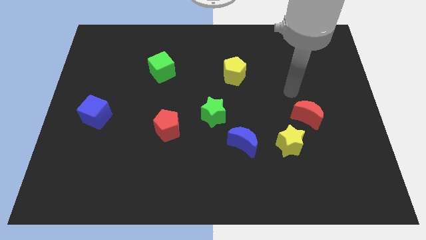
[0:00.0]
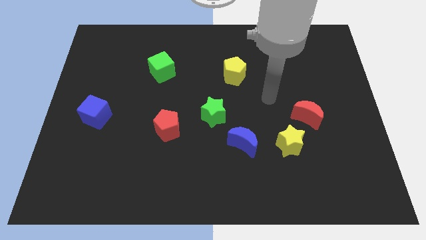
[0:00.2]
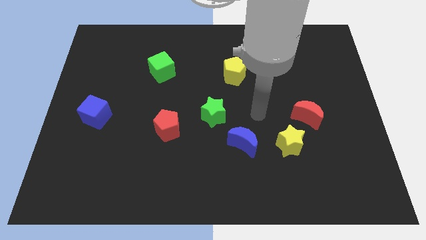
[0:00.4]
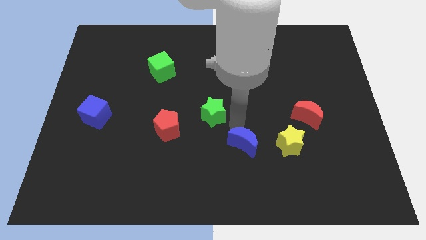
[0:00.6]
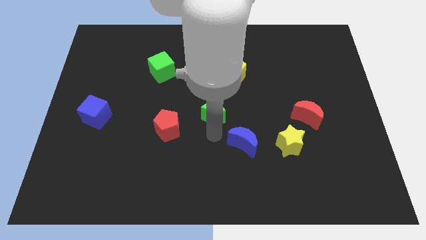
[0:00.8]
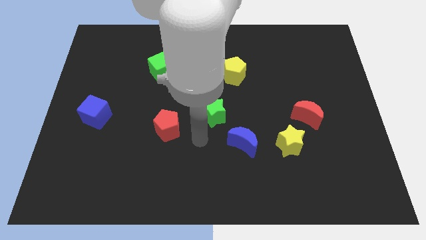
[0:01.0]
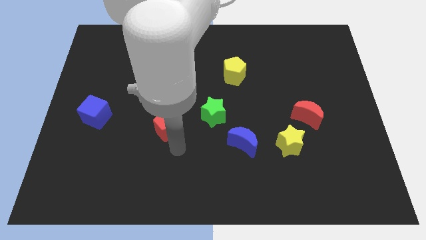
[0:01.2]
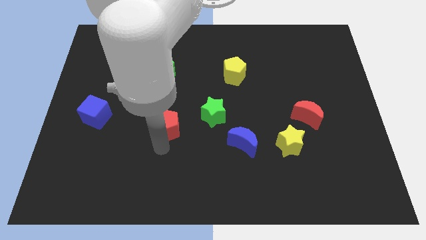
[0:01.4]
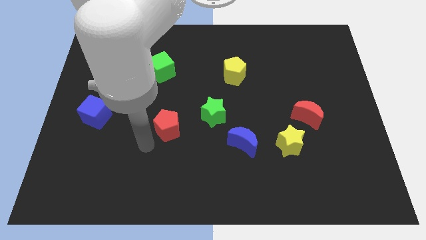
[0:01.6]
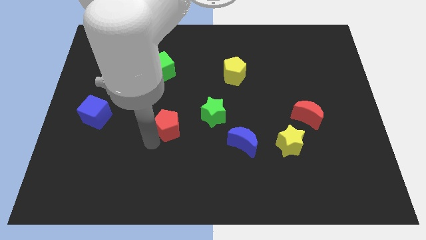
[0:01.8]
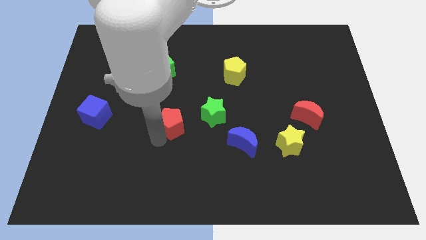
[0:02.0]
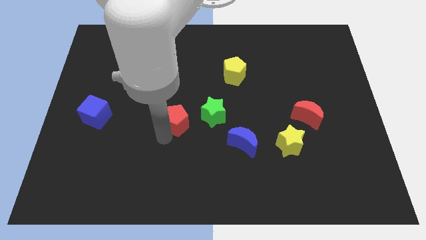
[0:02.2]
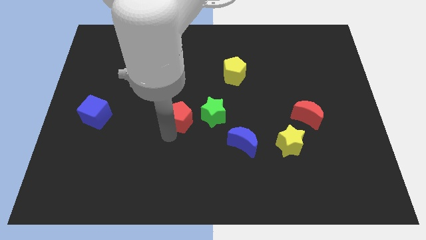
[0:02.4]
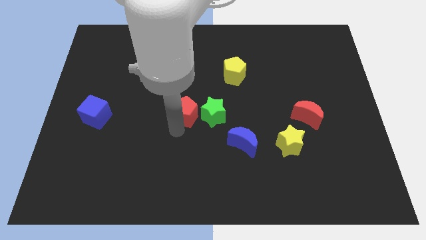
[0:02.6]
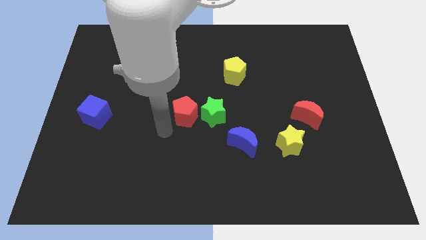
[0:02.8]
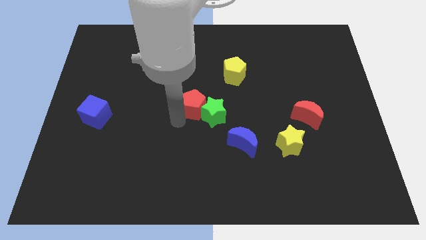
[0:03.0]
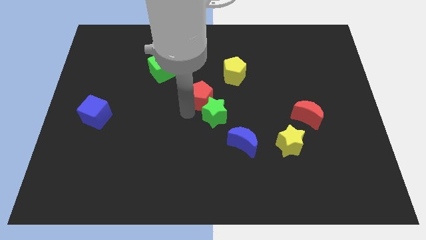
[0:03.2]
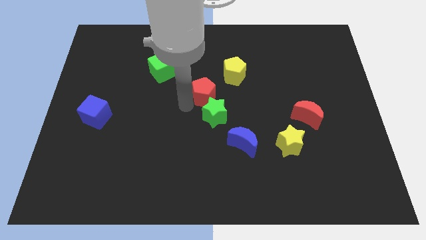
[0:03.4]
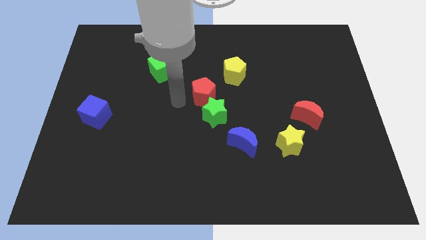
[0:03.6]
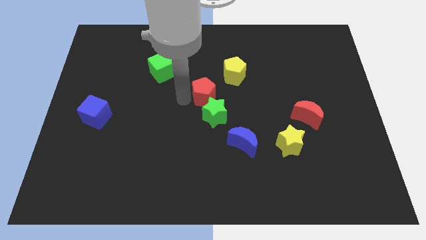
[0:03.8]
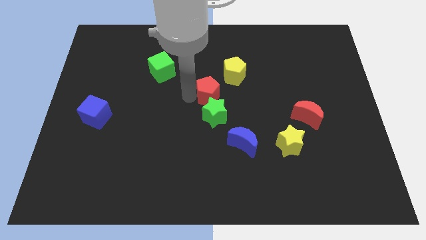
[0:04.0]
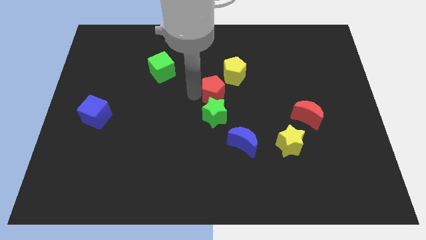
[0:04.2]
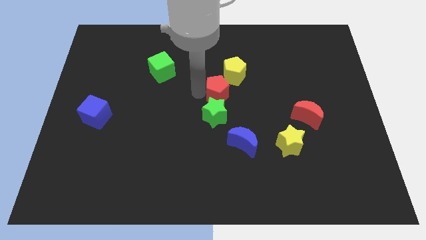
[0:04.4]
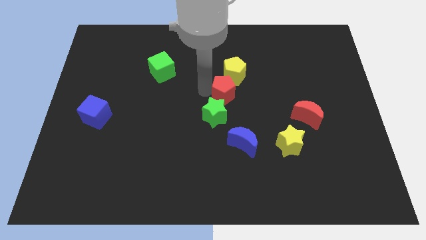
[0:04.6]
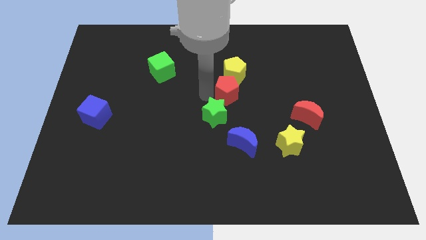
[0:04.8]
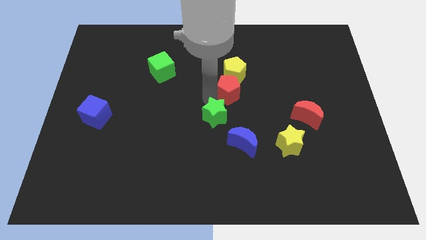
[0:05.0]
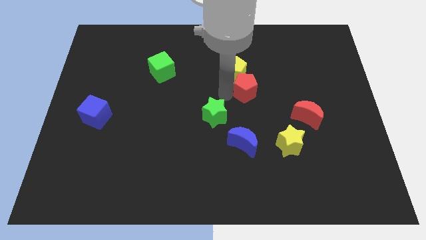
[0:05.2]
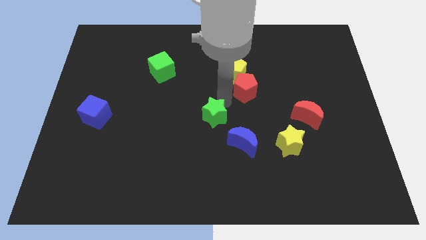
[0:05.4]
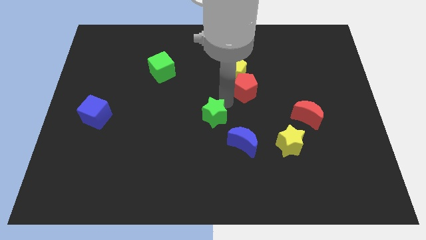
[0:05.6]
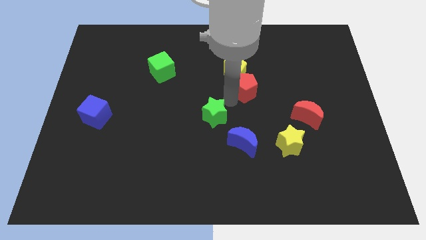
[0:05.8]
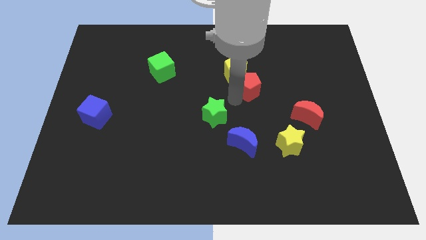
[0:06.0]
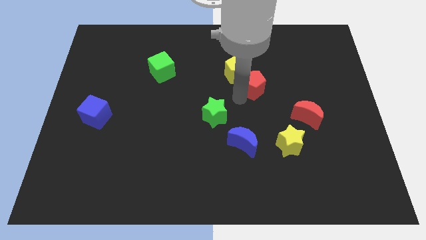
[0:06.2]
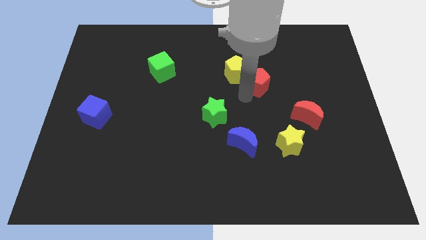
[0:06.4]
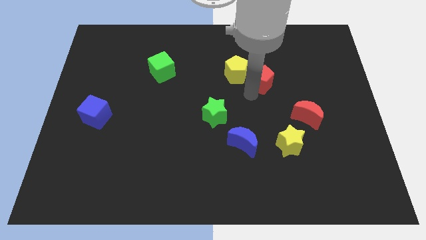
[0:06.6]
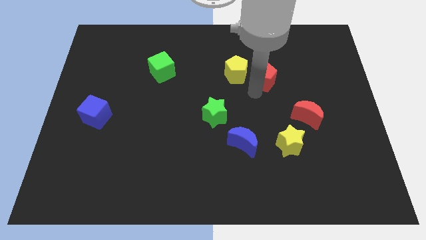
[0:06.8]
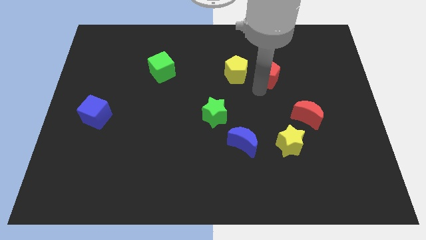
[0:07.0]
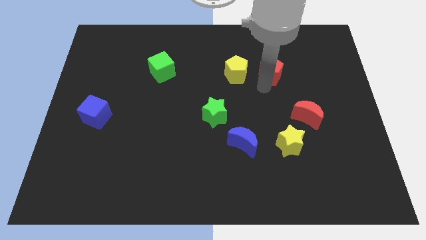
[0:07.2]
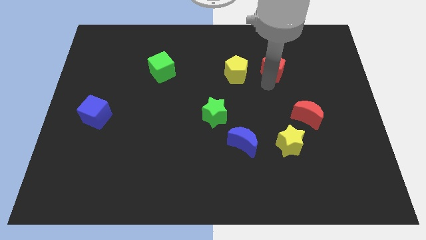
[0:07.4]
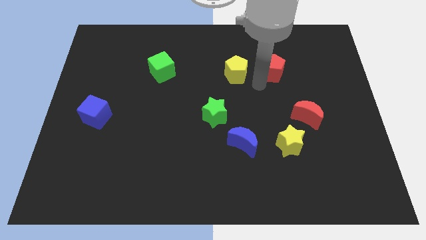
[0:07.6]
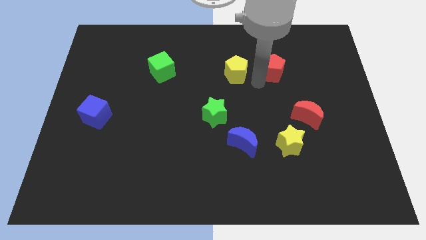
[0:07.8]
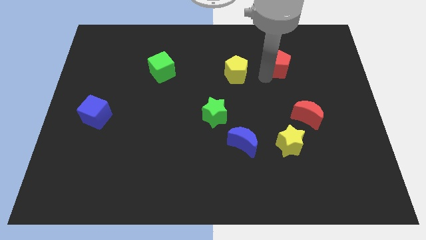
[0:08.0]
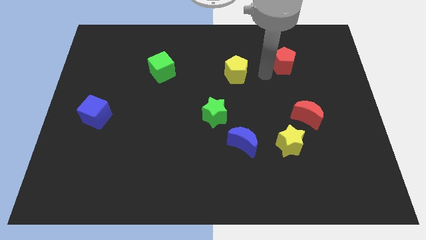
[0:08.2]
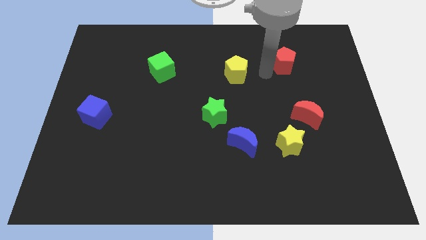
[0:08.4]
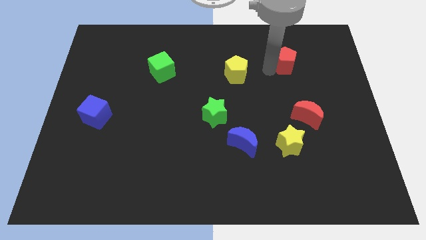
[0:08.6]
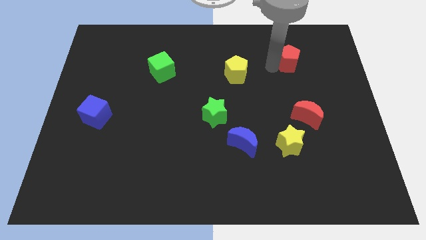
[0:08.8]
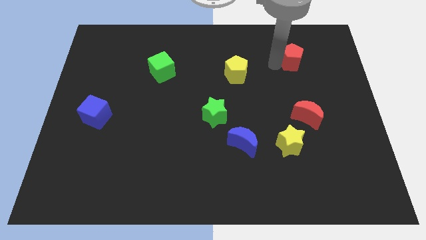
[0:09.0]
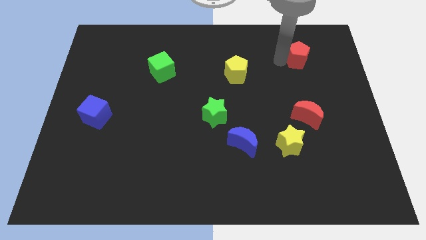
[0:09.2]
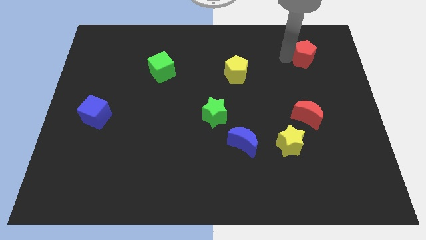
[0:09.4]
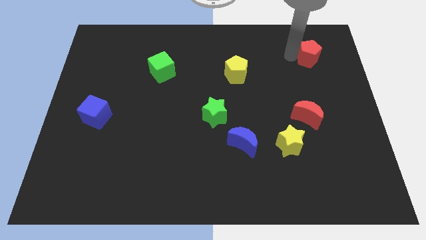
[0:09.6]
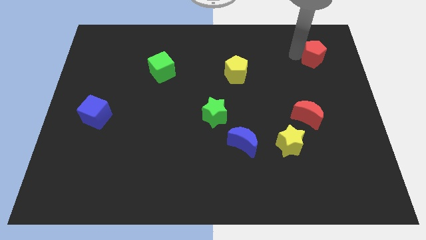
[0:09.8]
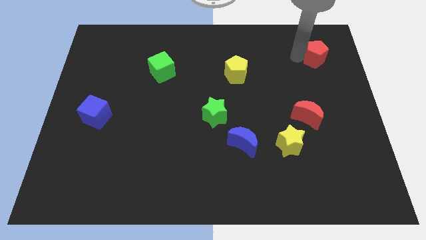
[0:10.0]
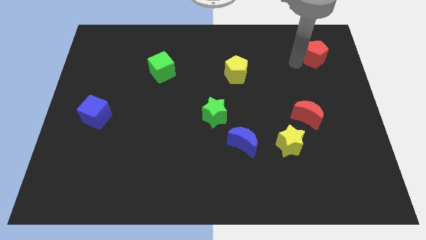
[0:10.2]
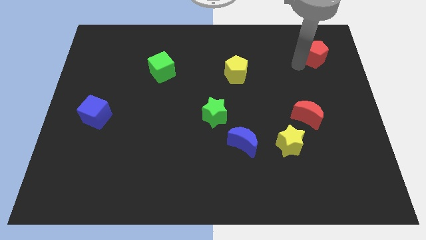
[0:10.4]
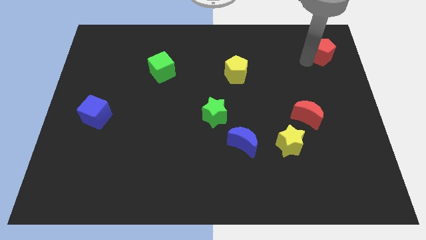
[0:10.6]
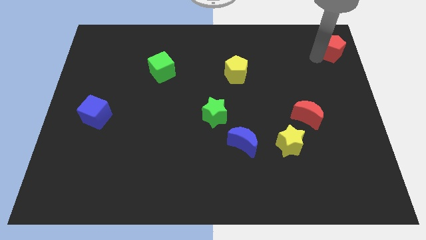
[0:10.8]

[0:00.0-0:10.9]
push the red pentagon to the upper right corner
